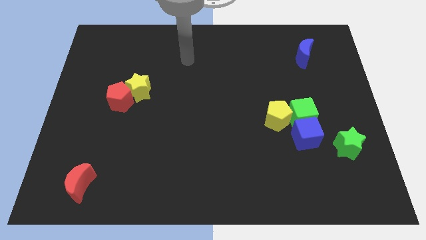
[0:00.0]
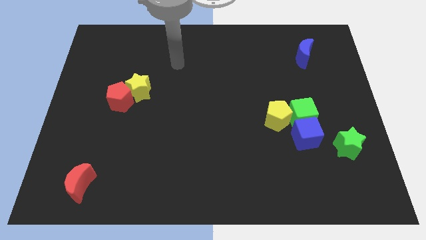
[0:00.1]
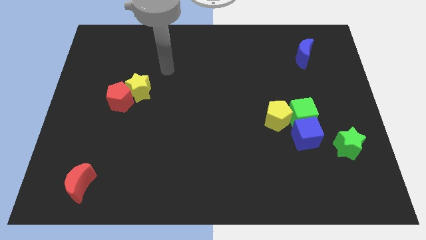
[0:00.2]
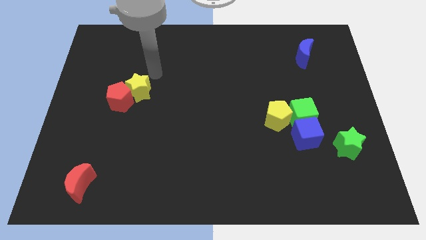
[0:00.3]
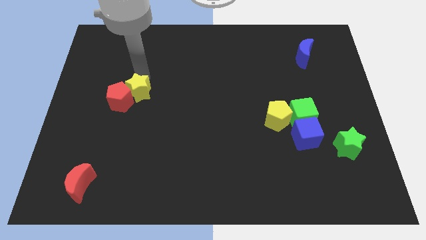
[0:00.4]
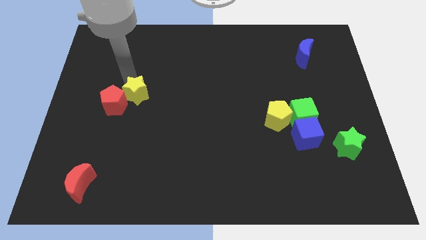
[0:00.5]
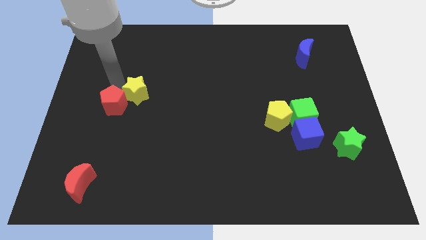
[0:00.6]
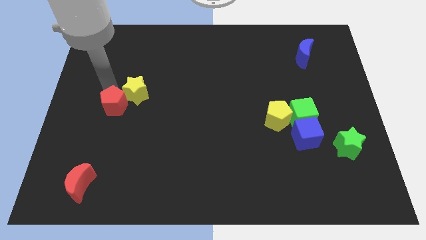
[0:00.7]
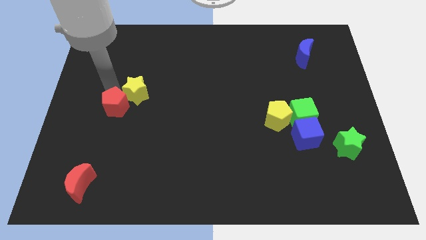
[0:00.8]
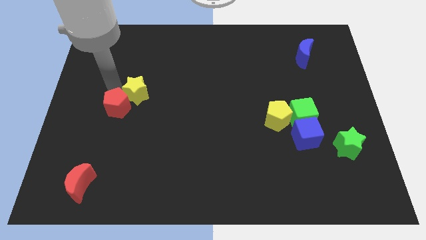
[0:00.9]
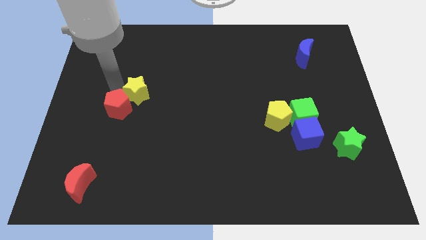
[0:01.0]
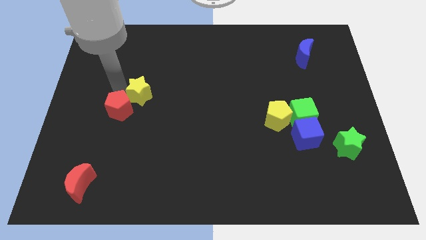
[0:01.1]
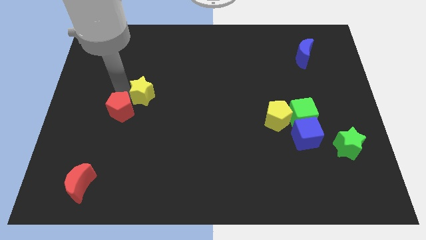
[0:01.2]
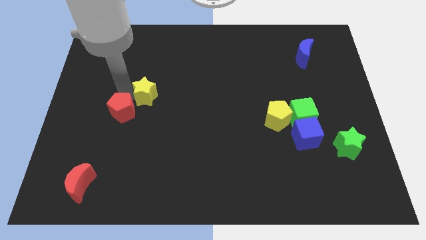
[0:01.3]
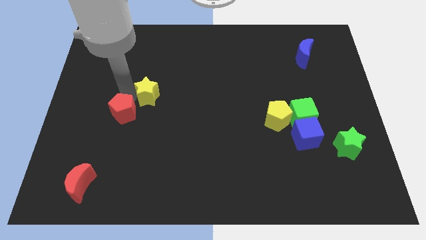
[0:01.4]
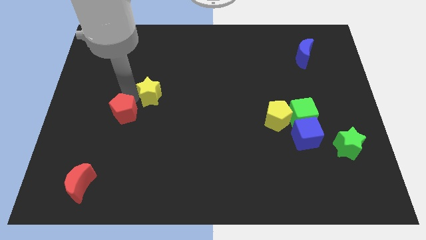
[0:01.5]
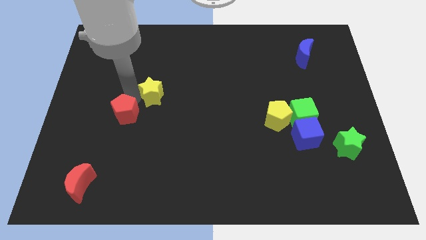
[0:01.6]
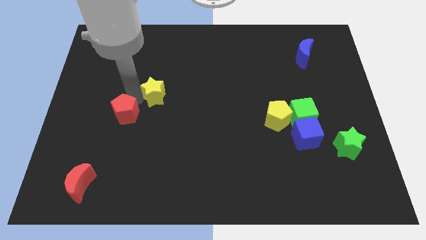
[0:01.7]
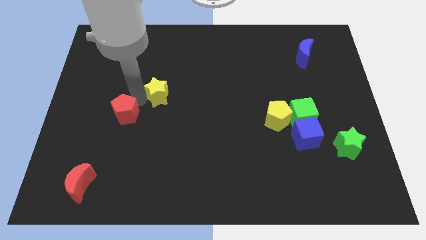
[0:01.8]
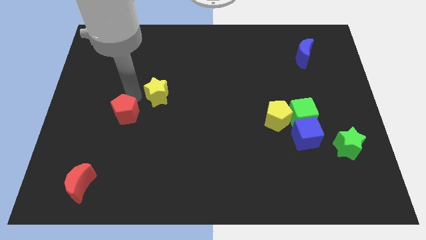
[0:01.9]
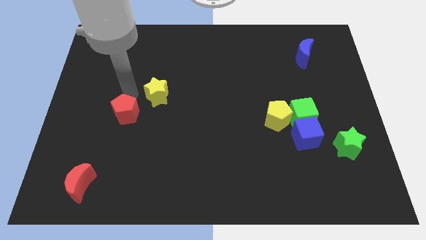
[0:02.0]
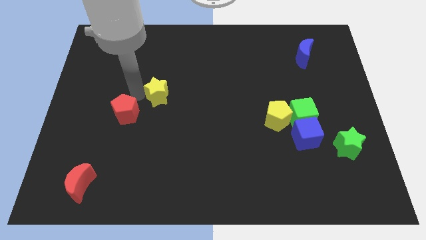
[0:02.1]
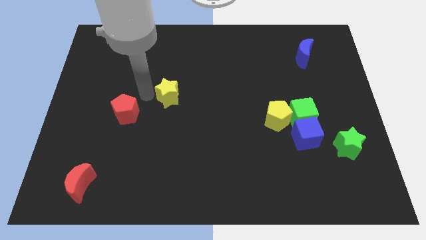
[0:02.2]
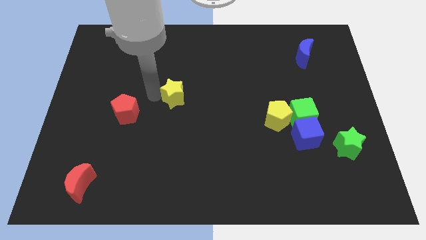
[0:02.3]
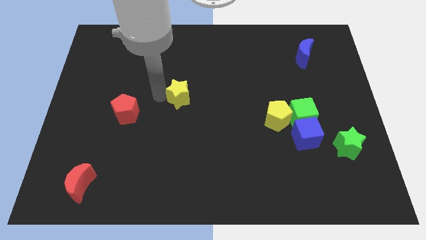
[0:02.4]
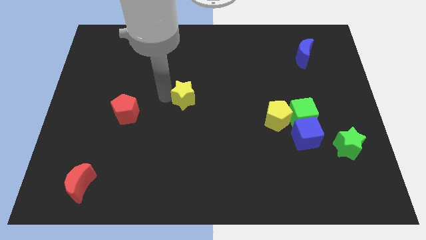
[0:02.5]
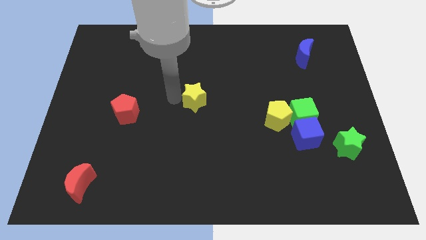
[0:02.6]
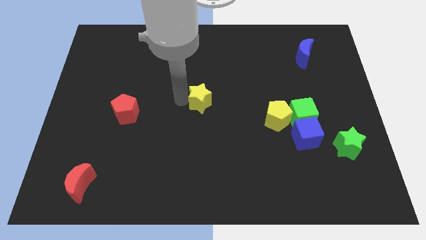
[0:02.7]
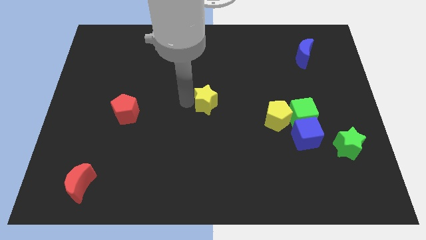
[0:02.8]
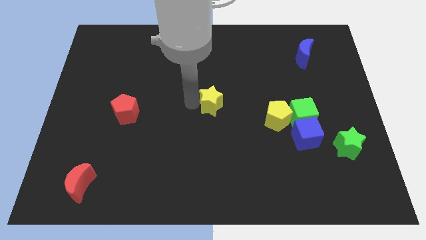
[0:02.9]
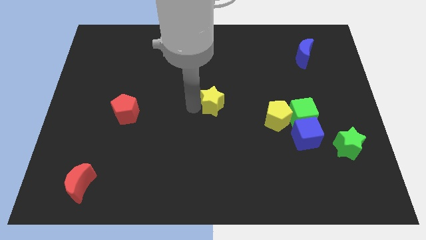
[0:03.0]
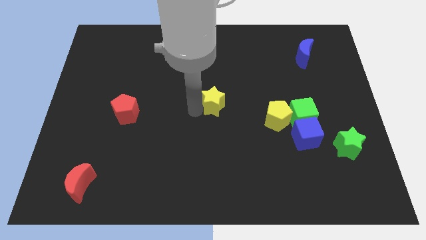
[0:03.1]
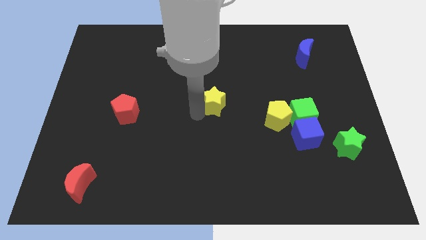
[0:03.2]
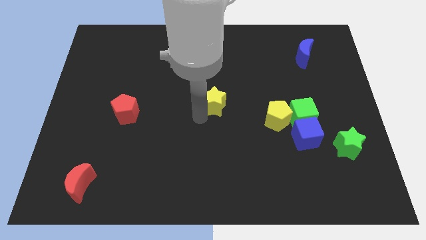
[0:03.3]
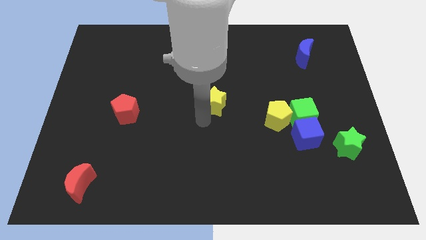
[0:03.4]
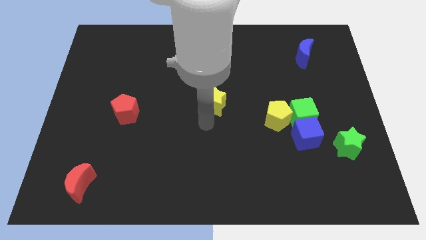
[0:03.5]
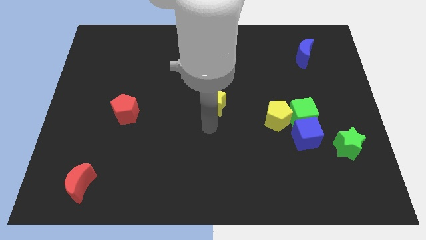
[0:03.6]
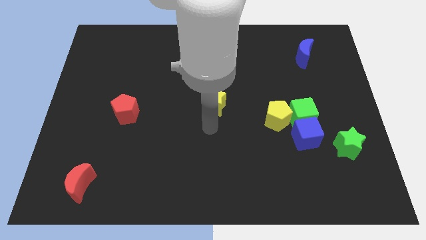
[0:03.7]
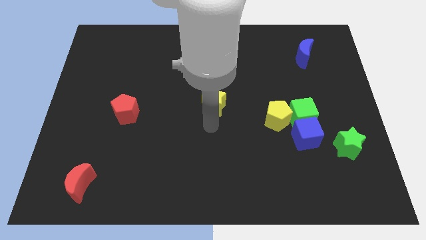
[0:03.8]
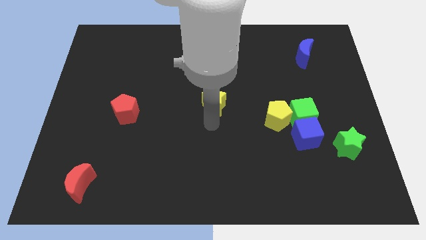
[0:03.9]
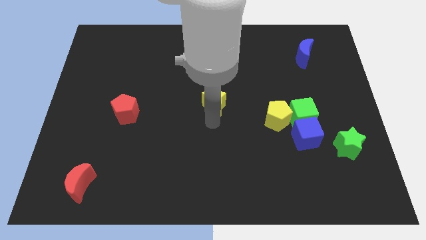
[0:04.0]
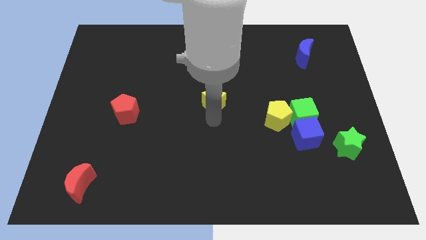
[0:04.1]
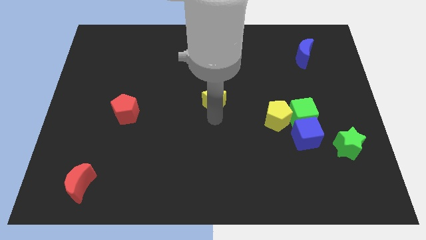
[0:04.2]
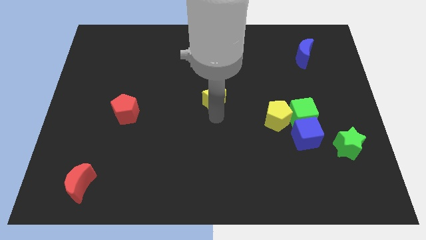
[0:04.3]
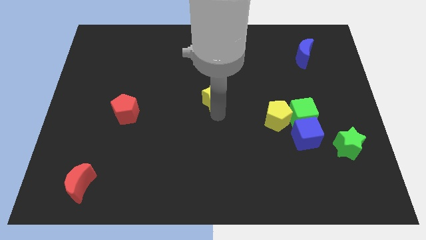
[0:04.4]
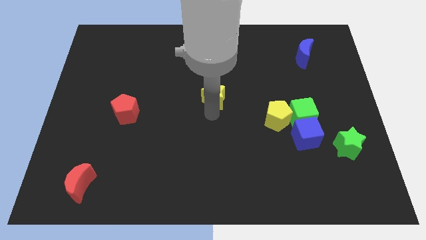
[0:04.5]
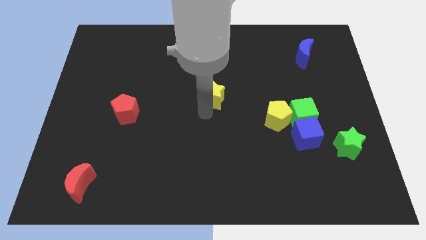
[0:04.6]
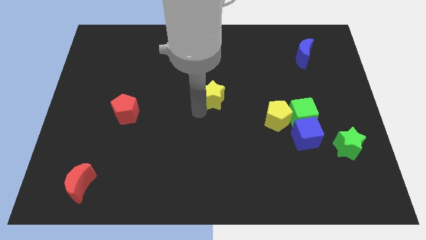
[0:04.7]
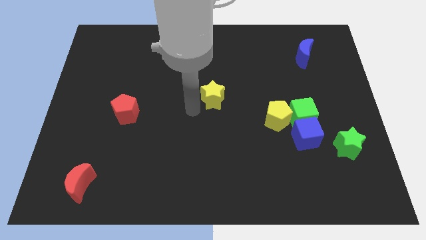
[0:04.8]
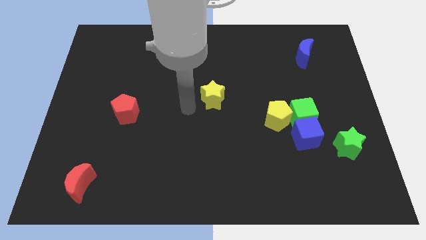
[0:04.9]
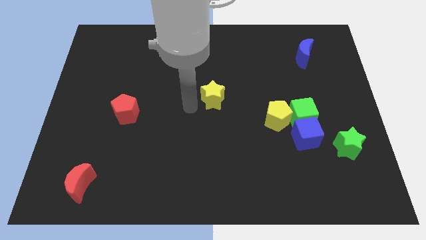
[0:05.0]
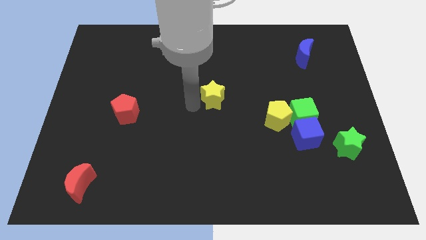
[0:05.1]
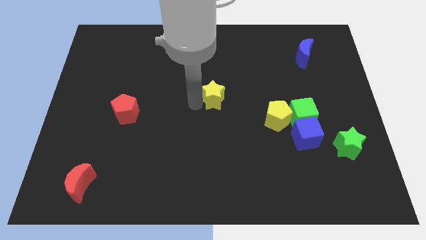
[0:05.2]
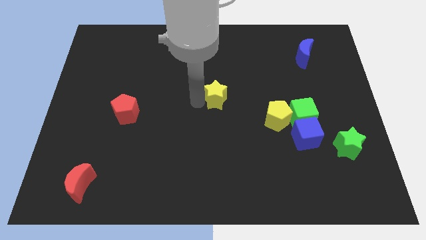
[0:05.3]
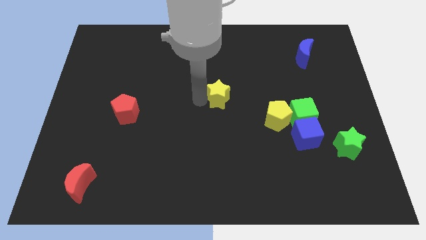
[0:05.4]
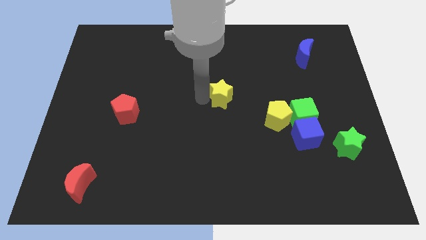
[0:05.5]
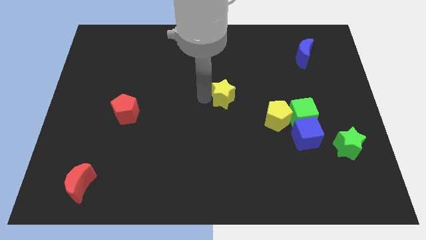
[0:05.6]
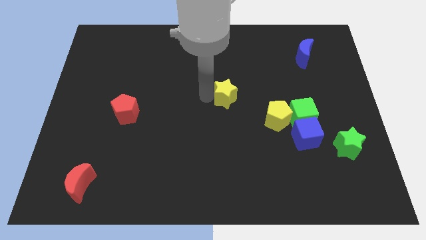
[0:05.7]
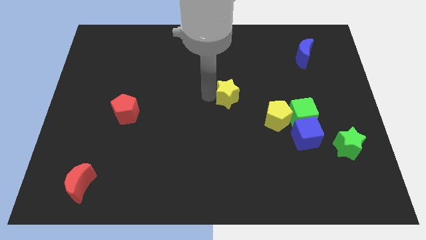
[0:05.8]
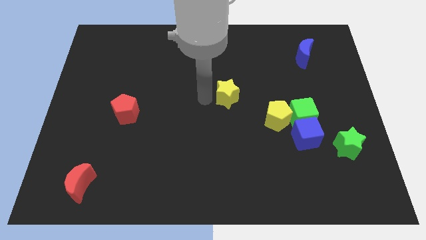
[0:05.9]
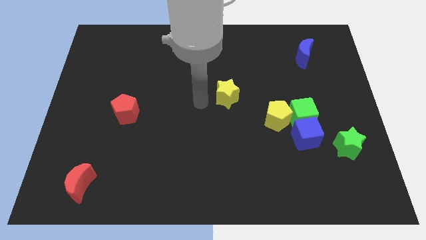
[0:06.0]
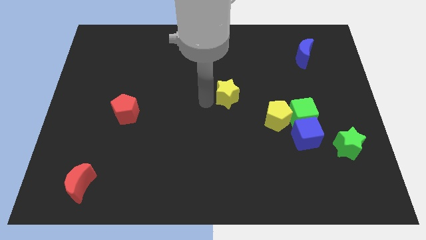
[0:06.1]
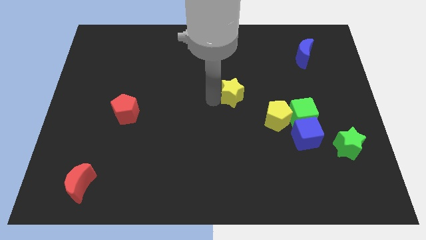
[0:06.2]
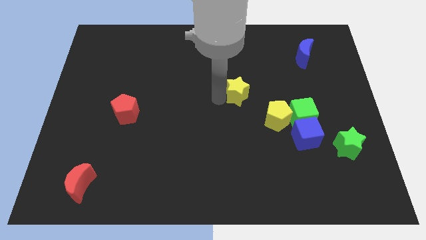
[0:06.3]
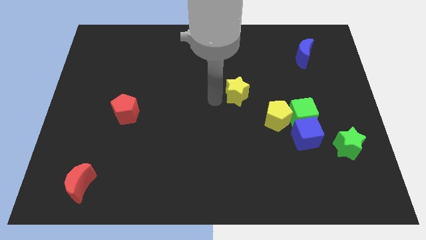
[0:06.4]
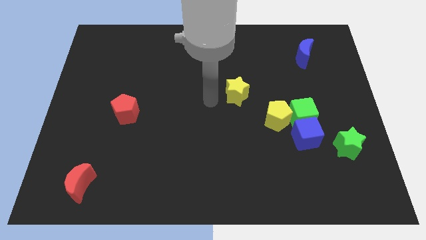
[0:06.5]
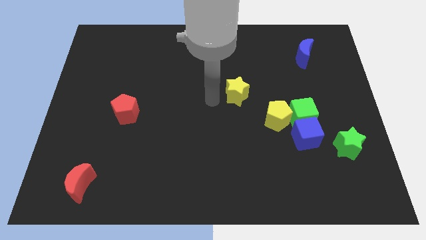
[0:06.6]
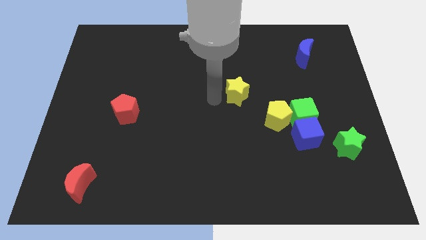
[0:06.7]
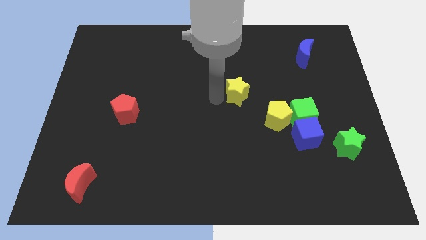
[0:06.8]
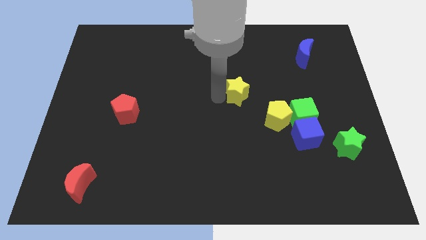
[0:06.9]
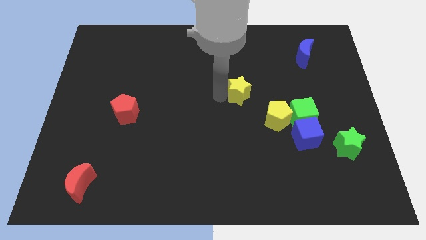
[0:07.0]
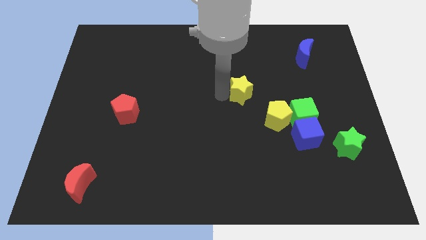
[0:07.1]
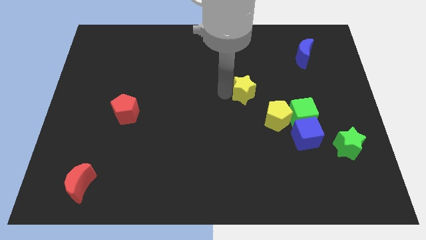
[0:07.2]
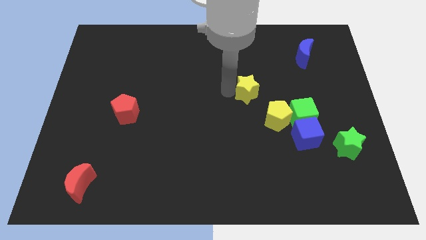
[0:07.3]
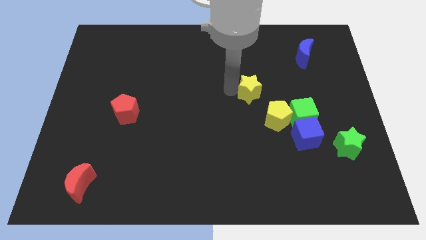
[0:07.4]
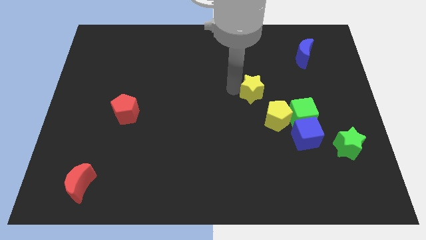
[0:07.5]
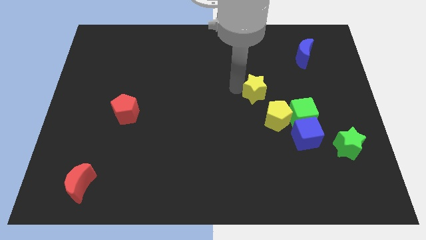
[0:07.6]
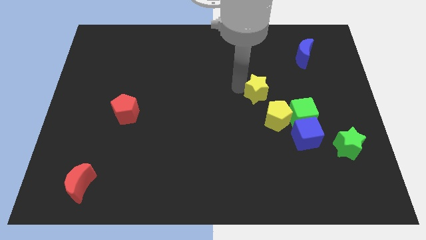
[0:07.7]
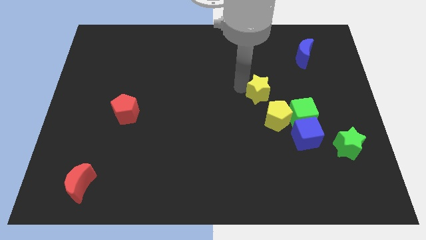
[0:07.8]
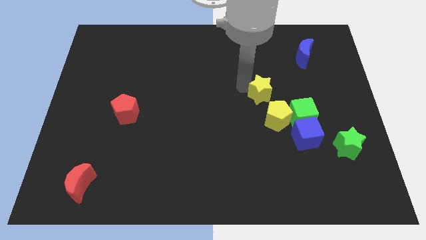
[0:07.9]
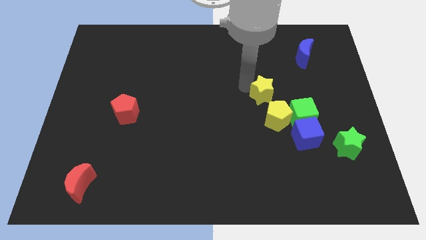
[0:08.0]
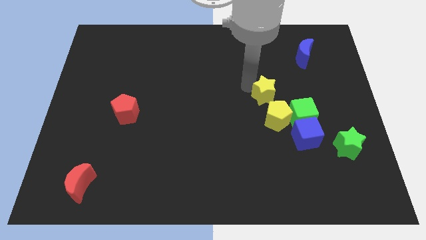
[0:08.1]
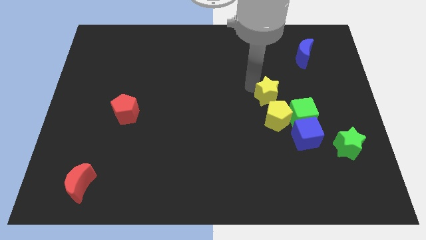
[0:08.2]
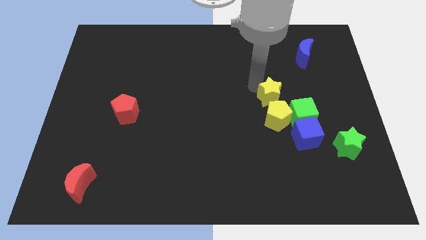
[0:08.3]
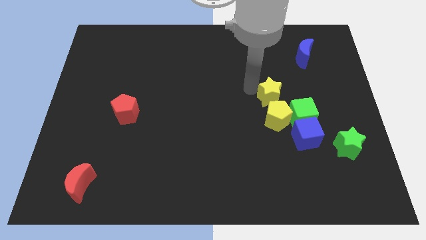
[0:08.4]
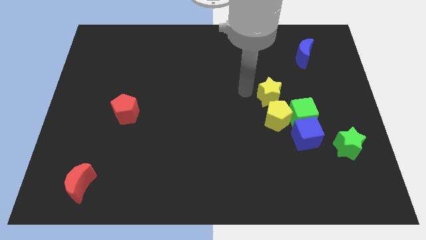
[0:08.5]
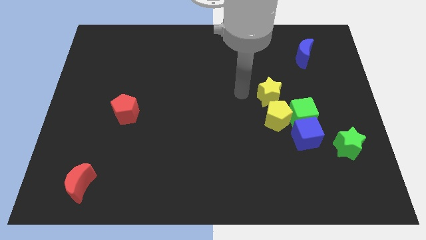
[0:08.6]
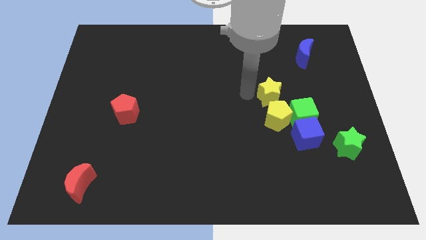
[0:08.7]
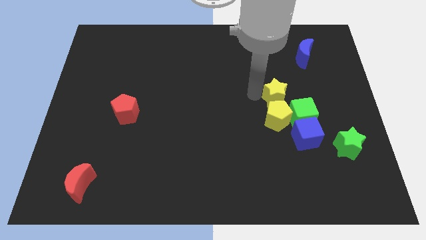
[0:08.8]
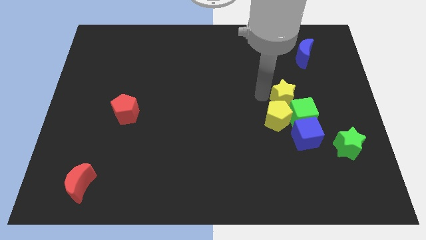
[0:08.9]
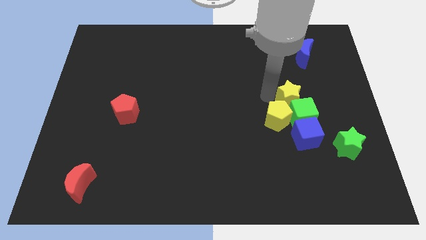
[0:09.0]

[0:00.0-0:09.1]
move the yellow star towards the green cube
